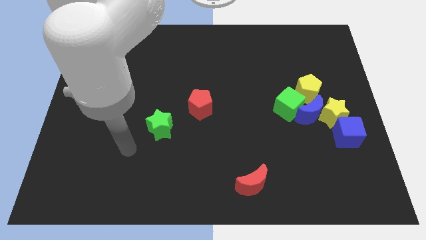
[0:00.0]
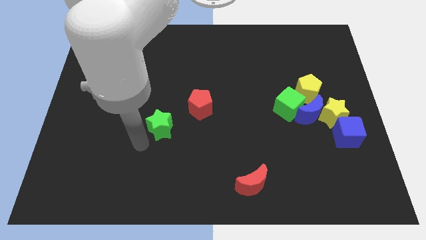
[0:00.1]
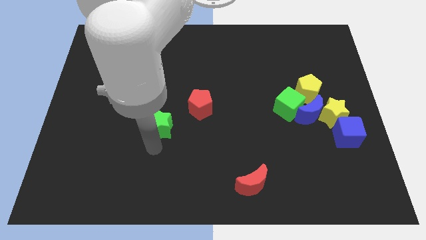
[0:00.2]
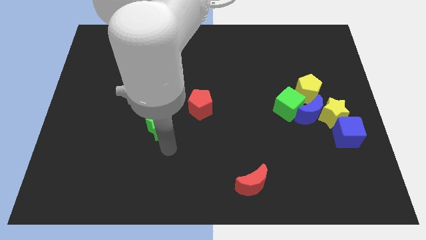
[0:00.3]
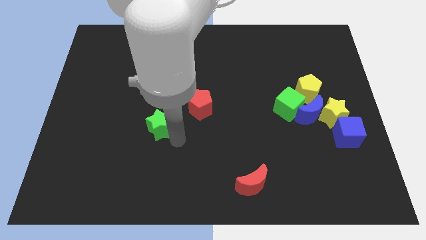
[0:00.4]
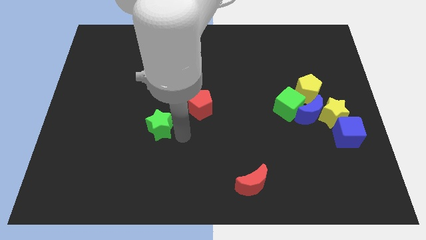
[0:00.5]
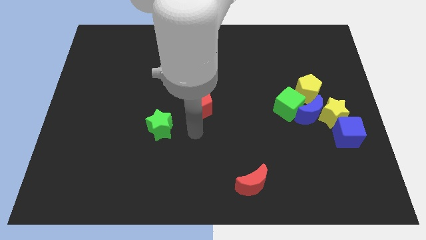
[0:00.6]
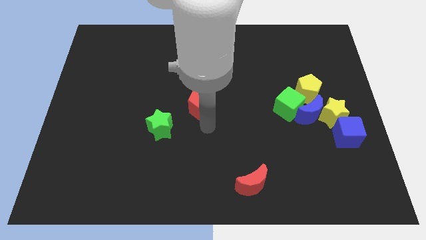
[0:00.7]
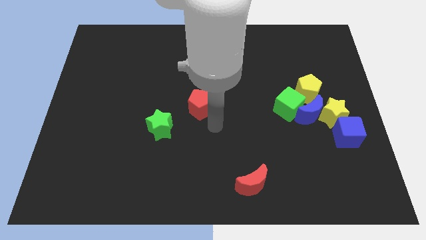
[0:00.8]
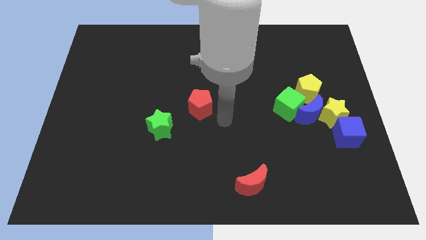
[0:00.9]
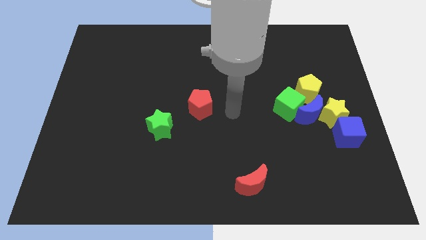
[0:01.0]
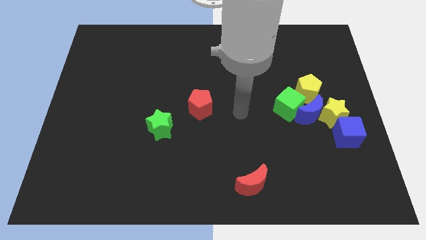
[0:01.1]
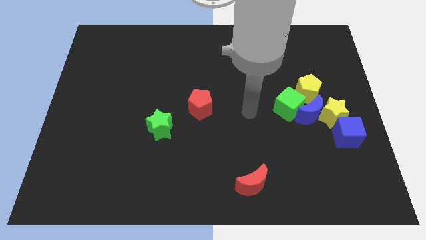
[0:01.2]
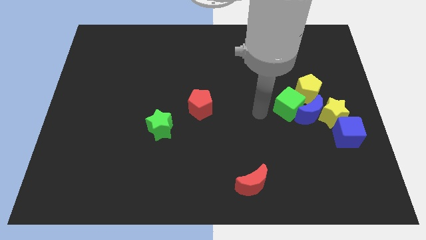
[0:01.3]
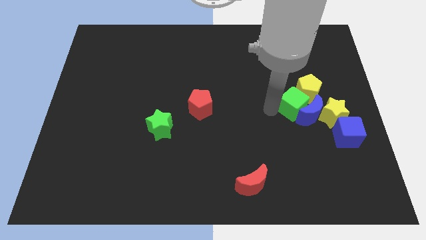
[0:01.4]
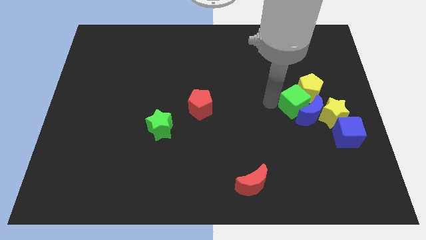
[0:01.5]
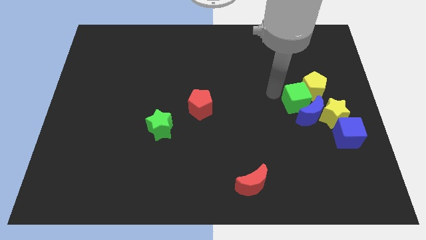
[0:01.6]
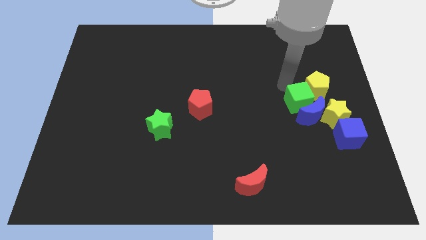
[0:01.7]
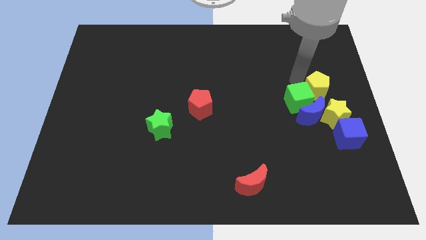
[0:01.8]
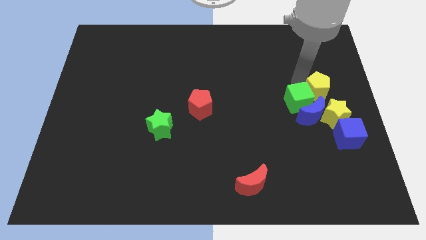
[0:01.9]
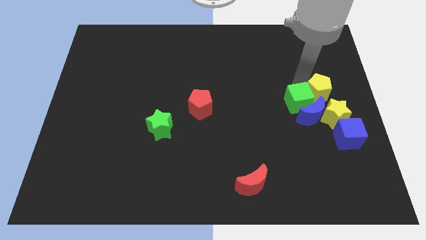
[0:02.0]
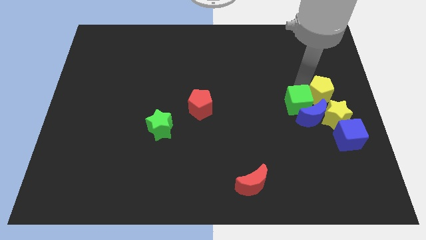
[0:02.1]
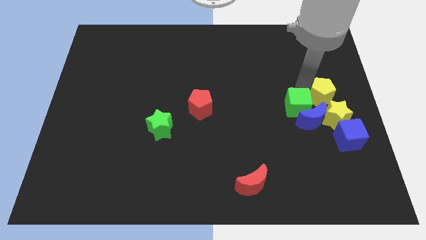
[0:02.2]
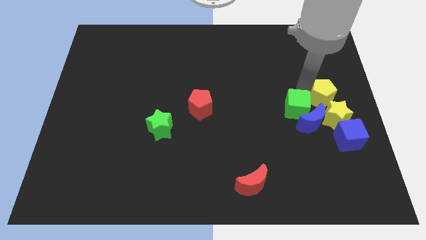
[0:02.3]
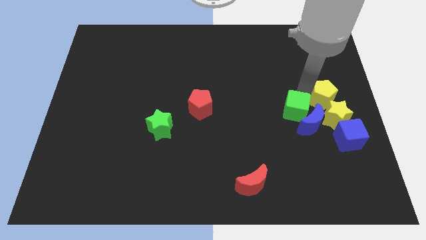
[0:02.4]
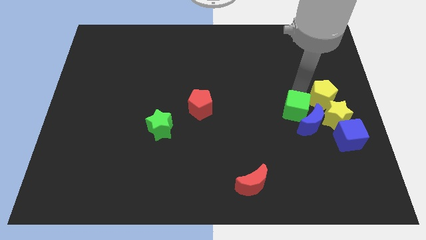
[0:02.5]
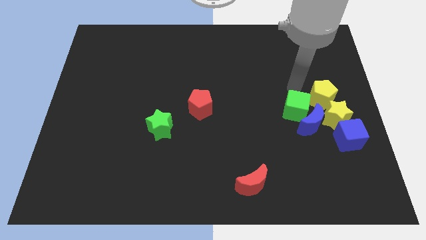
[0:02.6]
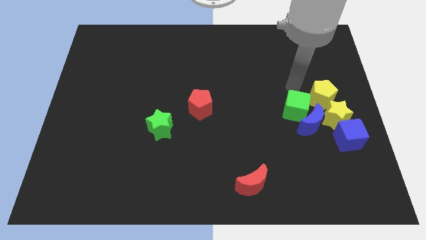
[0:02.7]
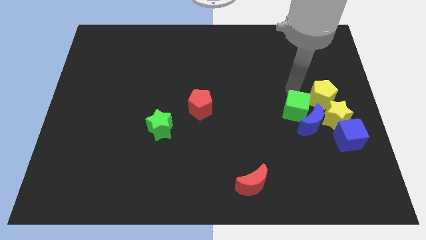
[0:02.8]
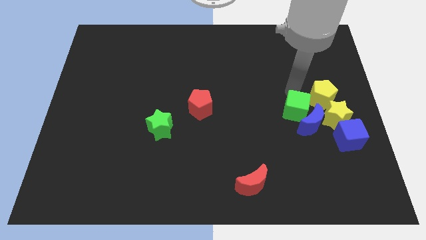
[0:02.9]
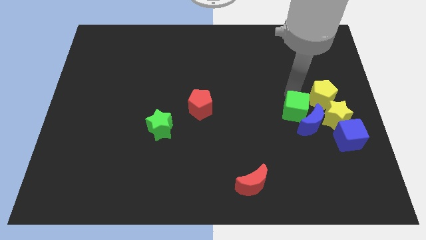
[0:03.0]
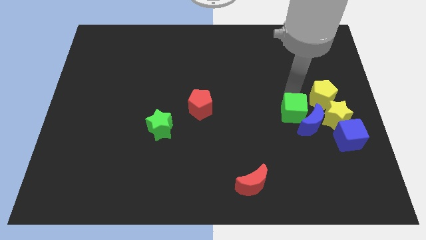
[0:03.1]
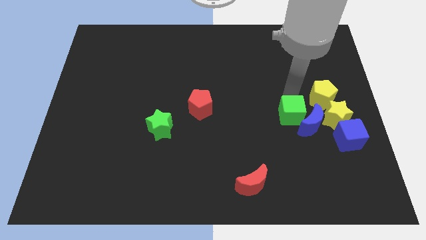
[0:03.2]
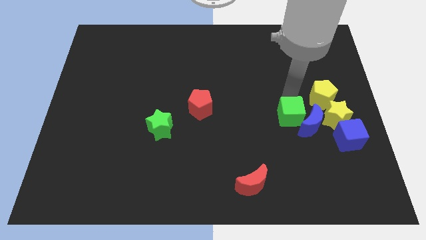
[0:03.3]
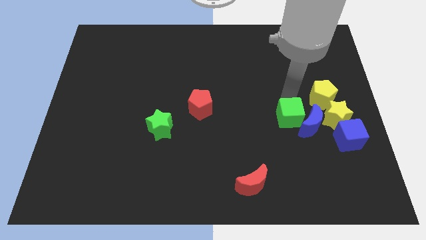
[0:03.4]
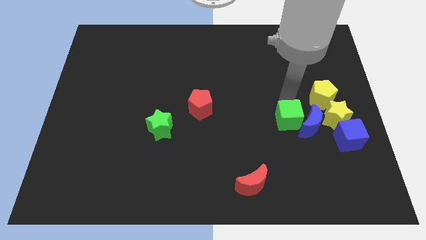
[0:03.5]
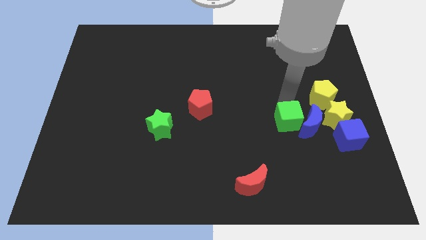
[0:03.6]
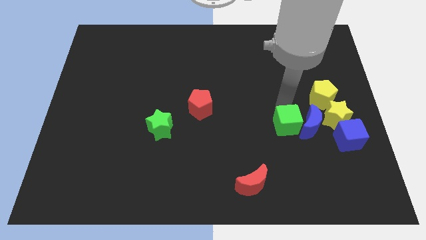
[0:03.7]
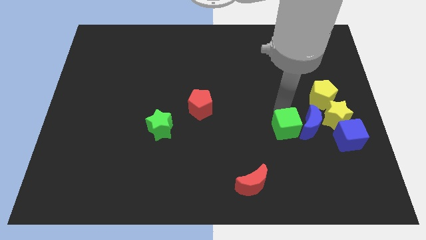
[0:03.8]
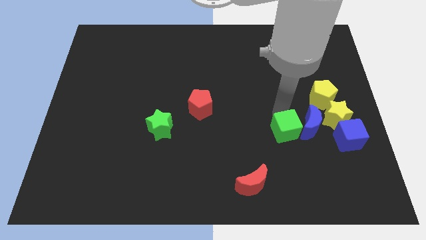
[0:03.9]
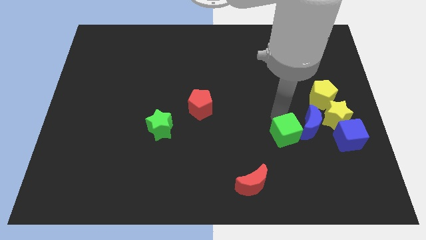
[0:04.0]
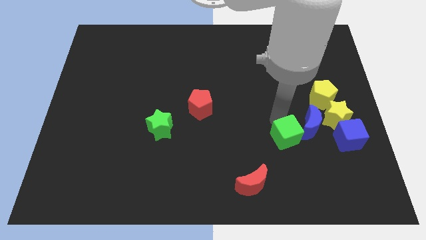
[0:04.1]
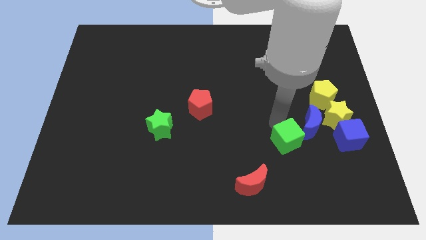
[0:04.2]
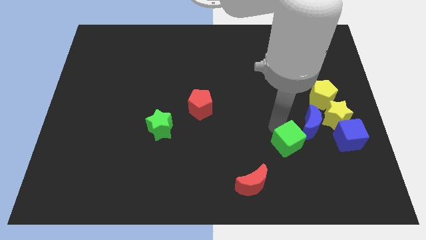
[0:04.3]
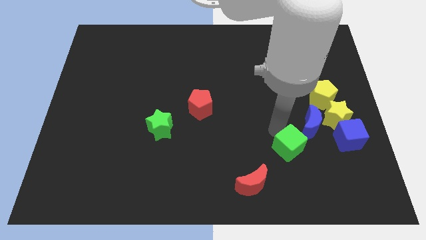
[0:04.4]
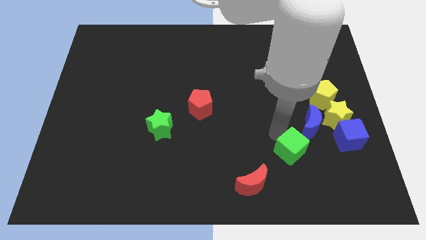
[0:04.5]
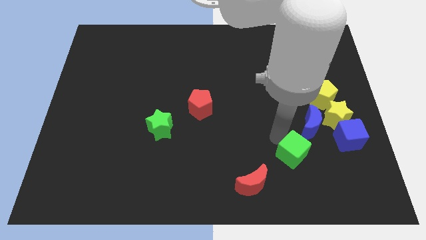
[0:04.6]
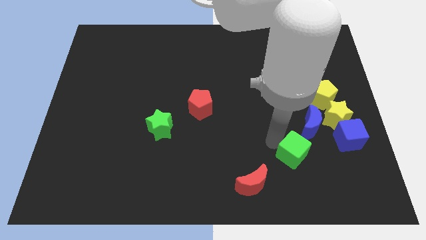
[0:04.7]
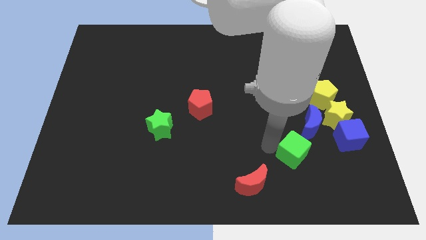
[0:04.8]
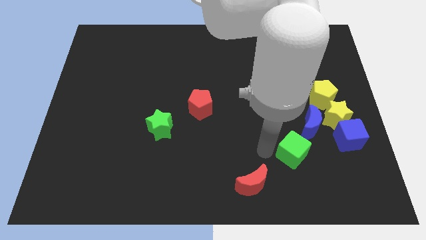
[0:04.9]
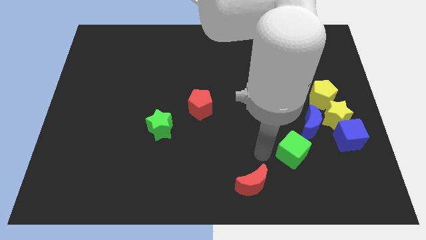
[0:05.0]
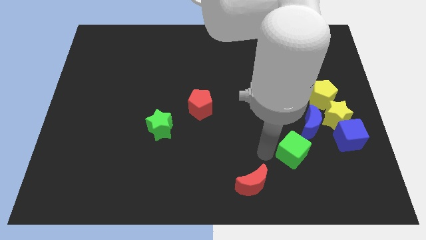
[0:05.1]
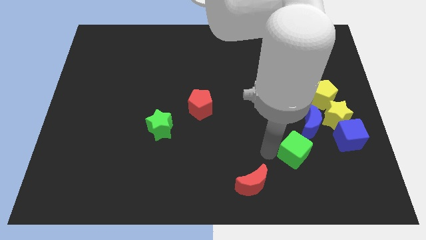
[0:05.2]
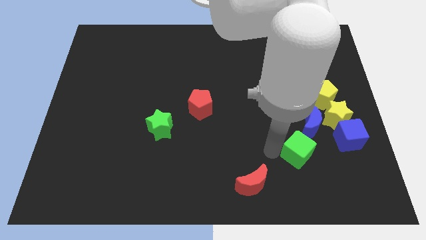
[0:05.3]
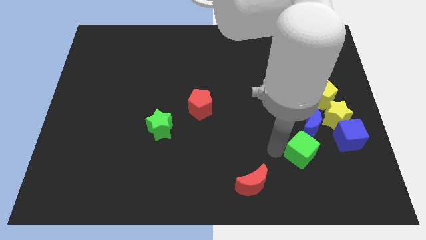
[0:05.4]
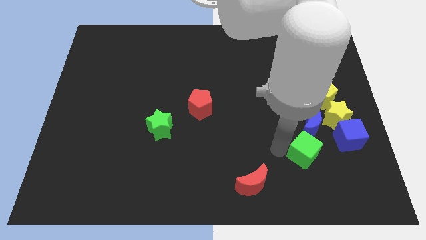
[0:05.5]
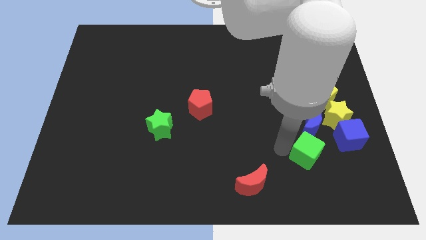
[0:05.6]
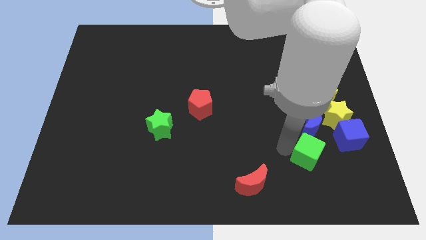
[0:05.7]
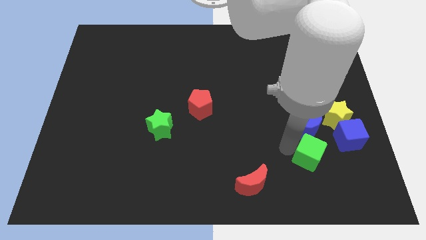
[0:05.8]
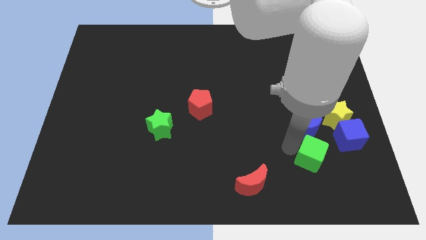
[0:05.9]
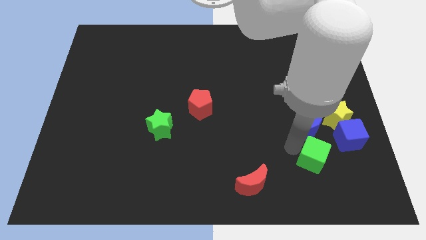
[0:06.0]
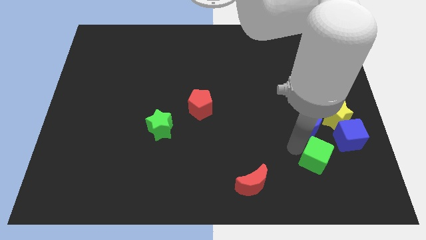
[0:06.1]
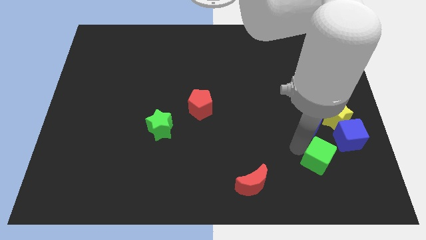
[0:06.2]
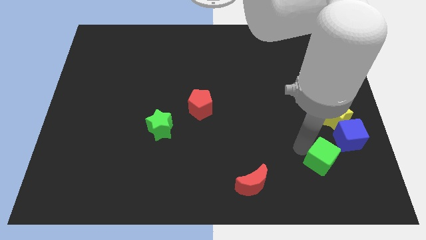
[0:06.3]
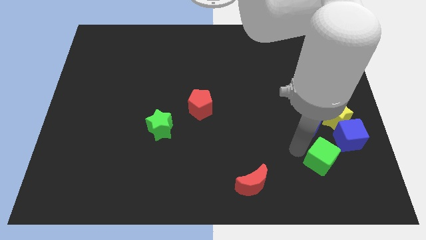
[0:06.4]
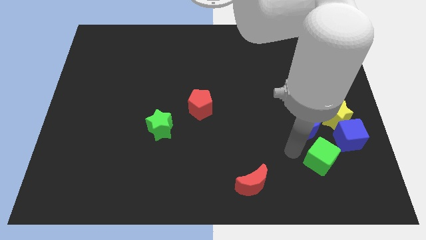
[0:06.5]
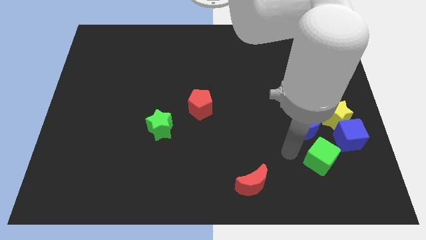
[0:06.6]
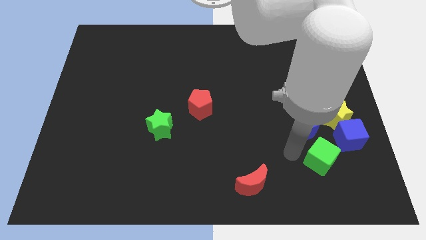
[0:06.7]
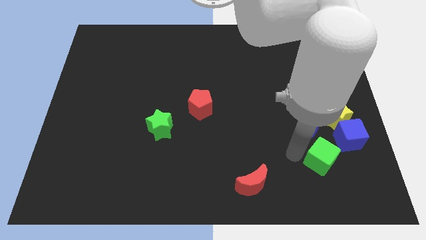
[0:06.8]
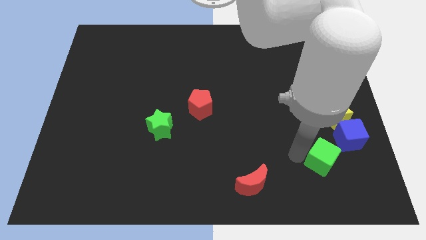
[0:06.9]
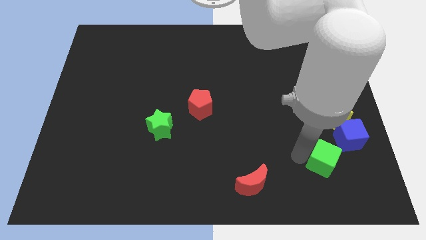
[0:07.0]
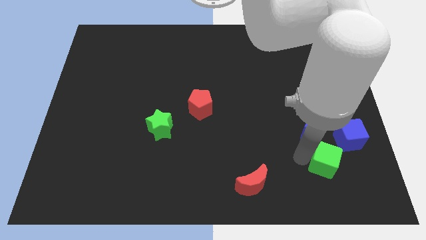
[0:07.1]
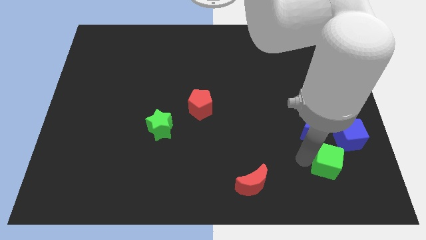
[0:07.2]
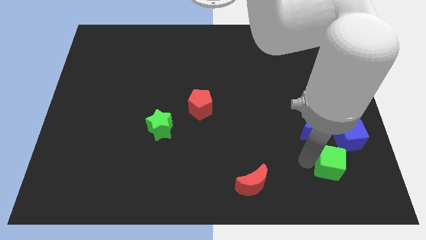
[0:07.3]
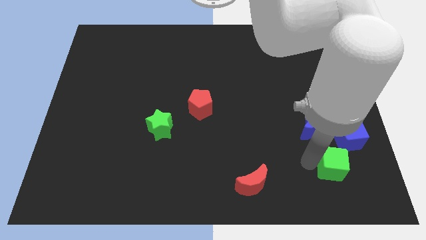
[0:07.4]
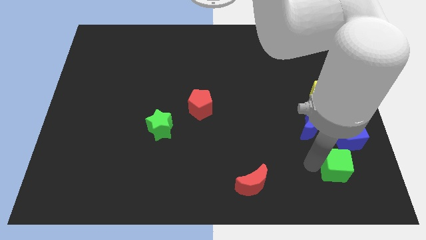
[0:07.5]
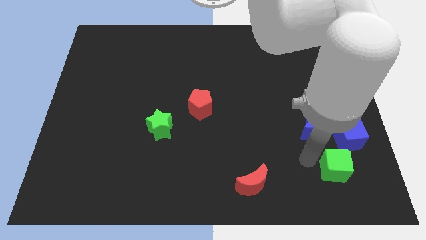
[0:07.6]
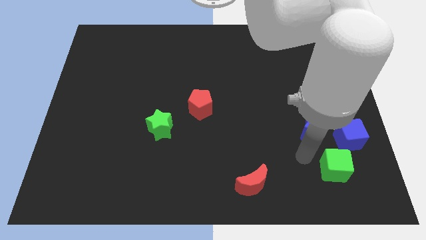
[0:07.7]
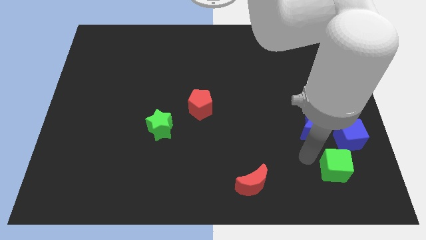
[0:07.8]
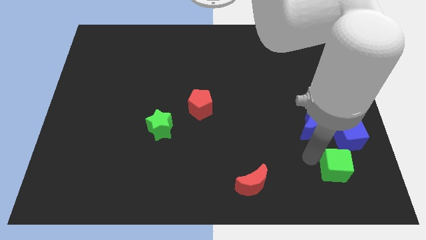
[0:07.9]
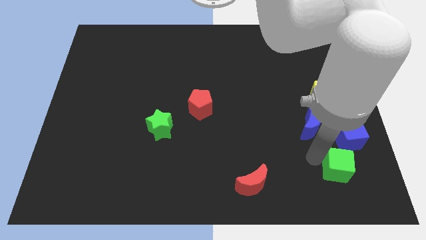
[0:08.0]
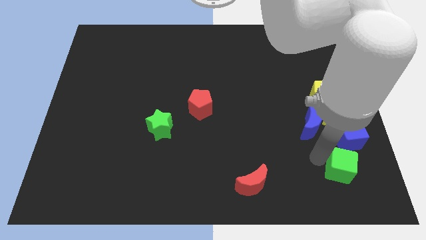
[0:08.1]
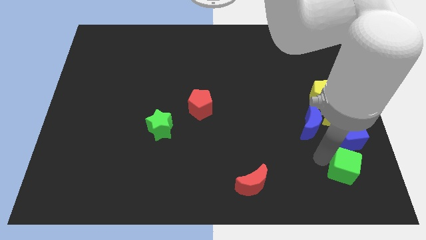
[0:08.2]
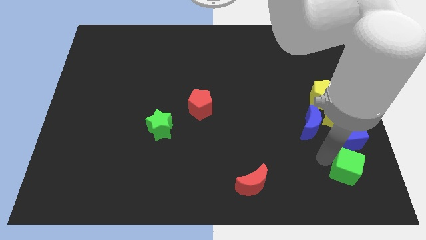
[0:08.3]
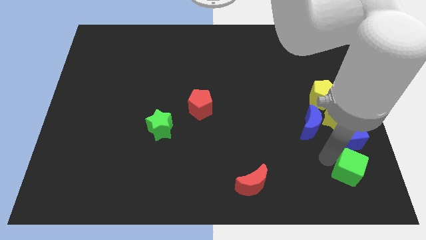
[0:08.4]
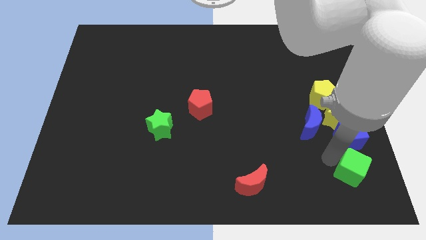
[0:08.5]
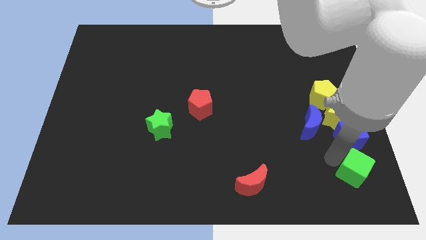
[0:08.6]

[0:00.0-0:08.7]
move the green cube to the bottom right of the board
